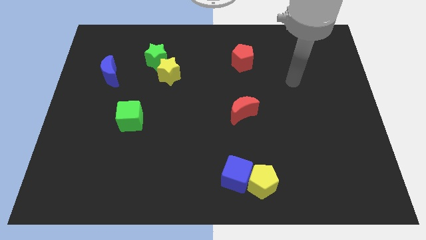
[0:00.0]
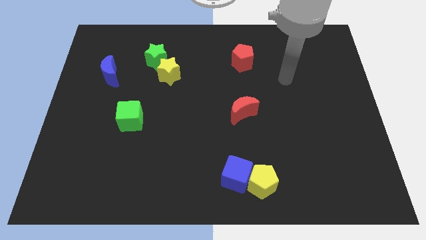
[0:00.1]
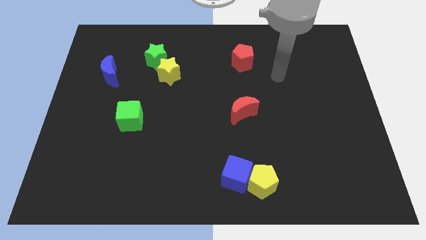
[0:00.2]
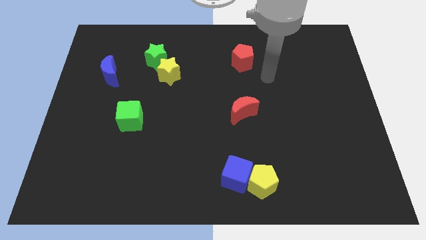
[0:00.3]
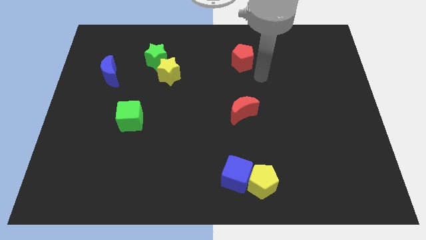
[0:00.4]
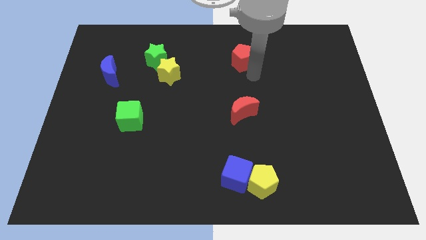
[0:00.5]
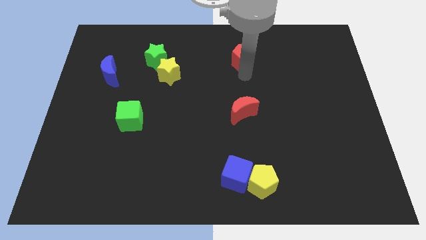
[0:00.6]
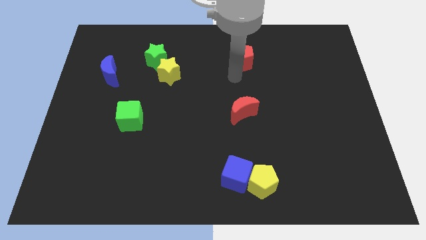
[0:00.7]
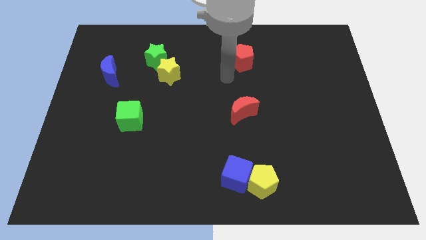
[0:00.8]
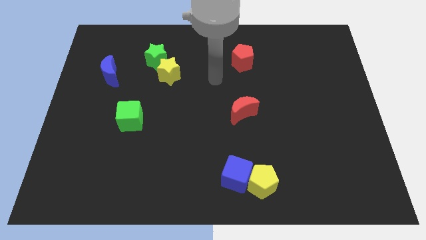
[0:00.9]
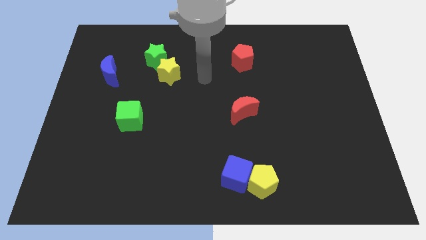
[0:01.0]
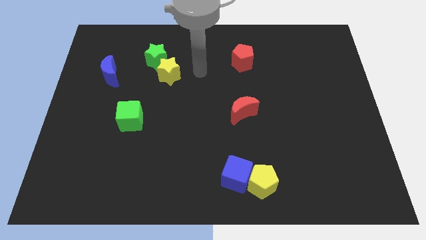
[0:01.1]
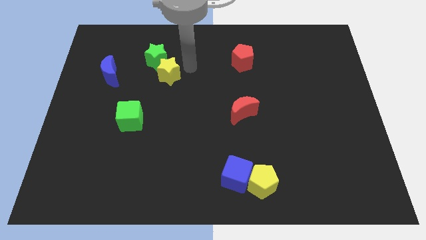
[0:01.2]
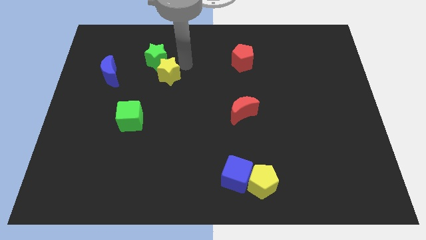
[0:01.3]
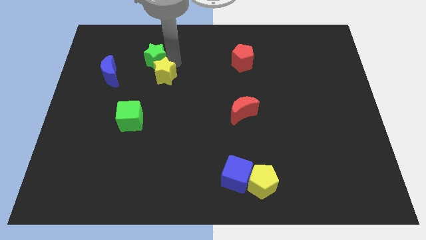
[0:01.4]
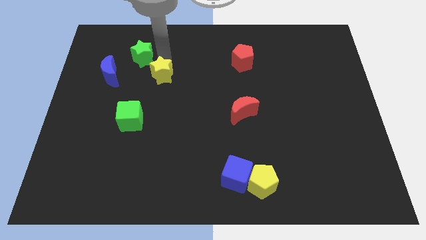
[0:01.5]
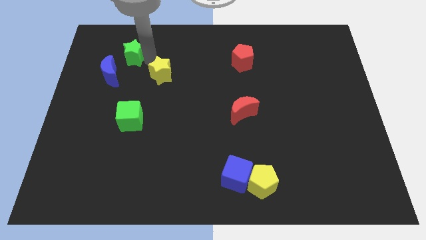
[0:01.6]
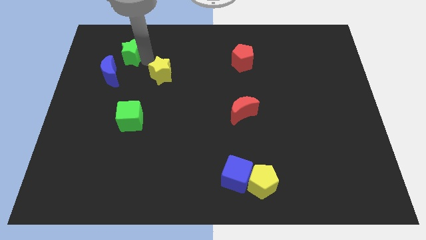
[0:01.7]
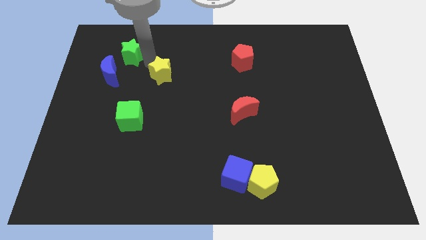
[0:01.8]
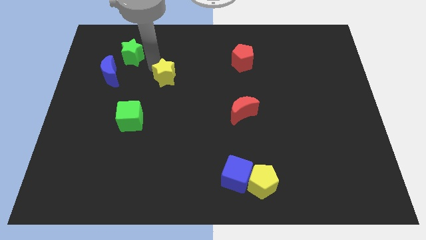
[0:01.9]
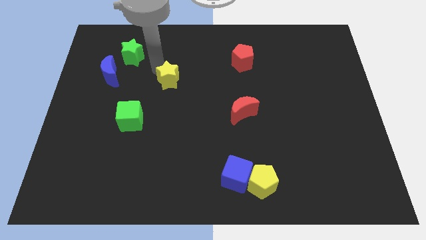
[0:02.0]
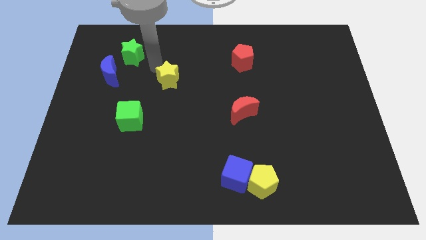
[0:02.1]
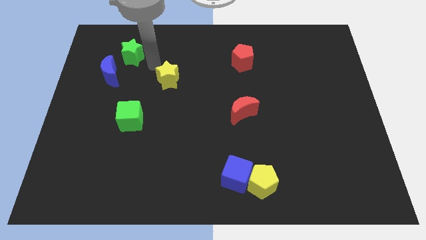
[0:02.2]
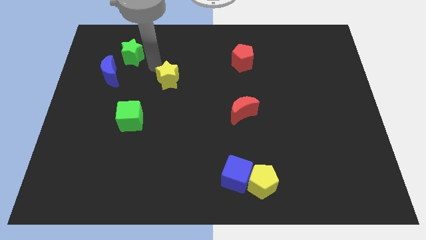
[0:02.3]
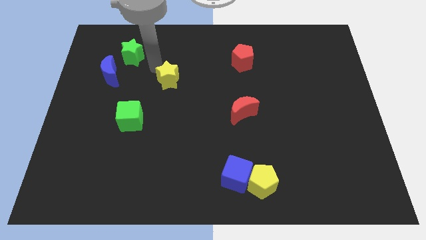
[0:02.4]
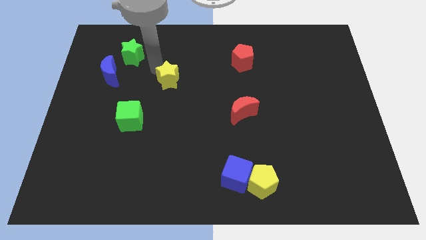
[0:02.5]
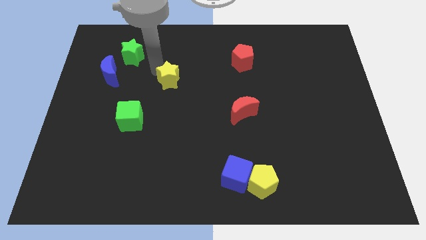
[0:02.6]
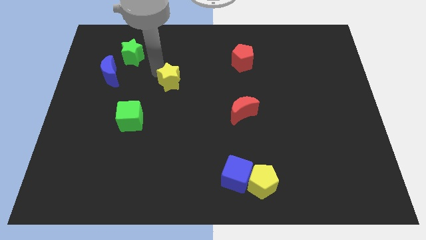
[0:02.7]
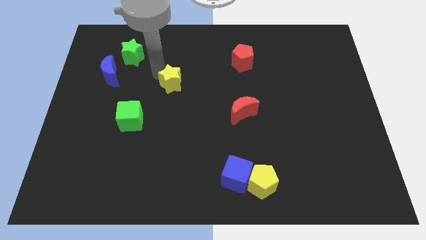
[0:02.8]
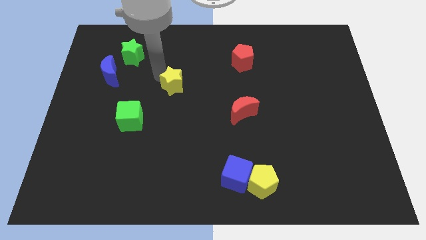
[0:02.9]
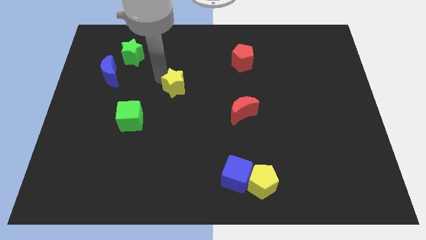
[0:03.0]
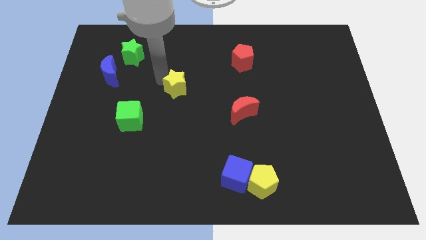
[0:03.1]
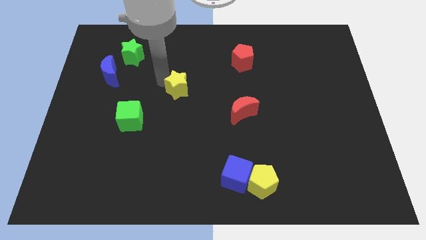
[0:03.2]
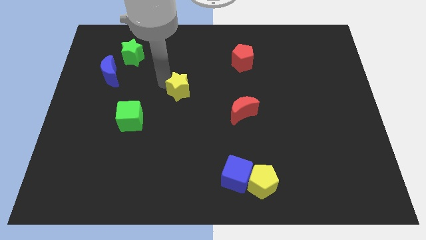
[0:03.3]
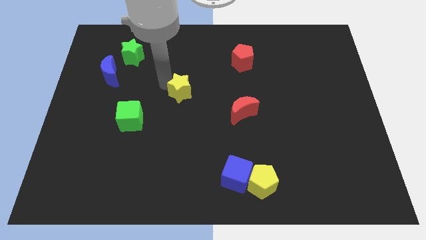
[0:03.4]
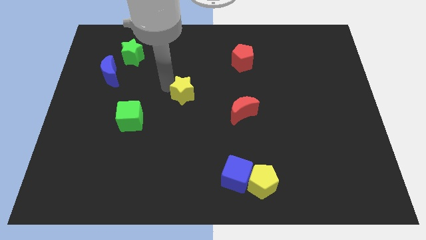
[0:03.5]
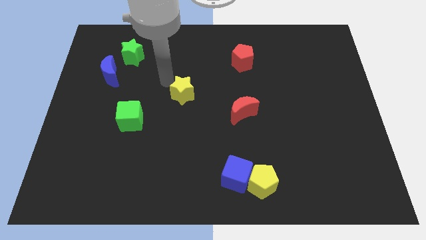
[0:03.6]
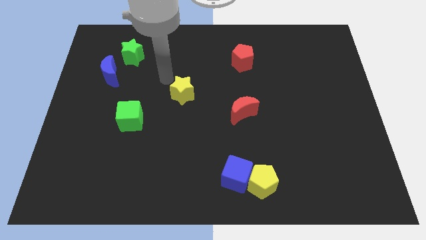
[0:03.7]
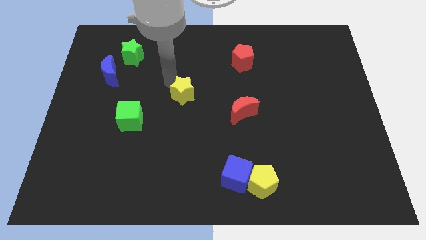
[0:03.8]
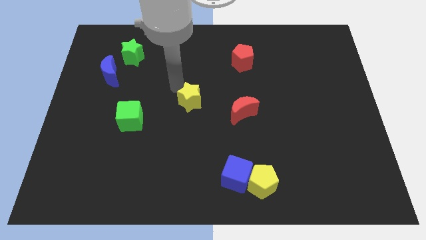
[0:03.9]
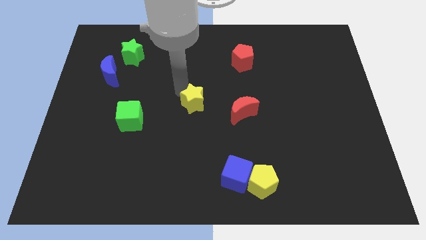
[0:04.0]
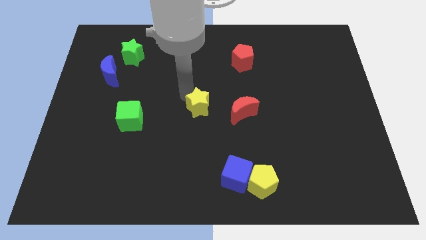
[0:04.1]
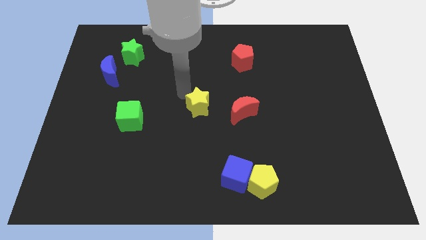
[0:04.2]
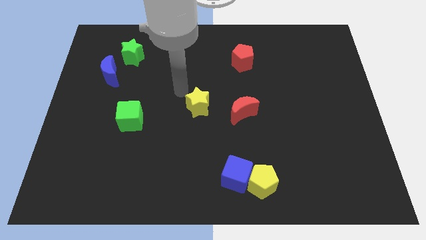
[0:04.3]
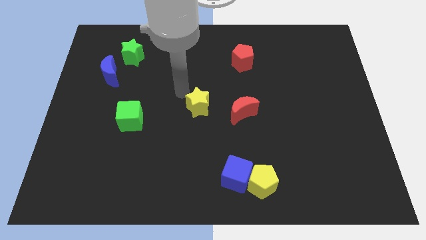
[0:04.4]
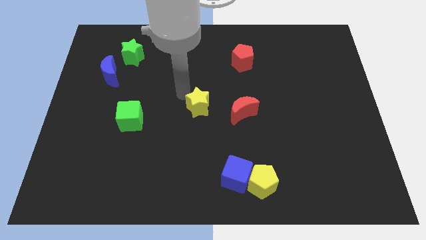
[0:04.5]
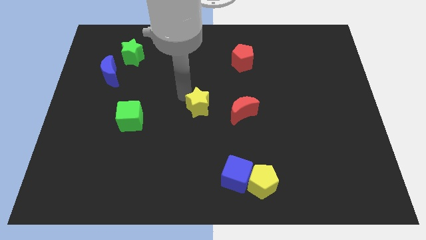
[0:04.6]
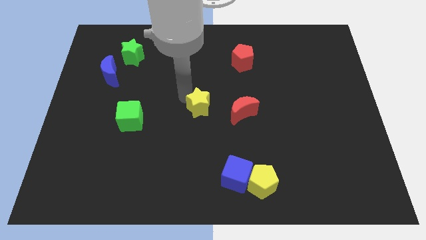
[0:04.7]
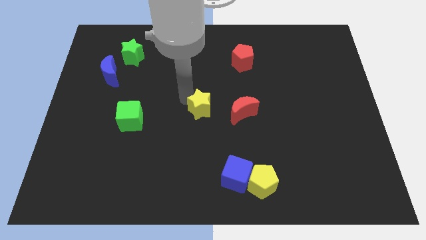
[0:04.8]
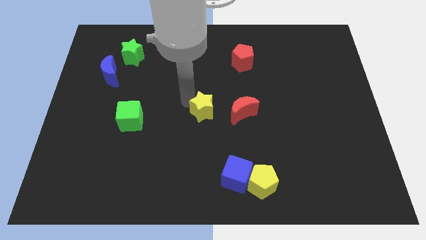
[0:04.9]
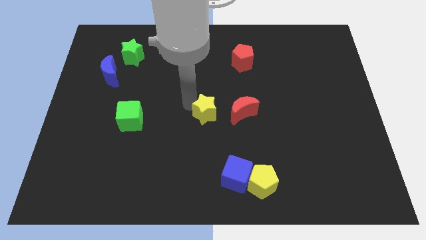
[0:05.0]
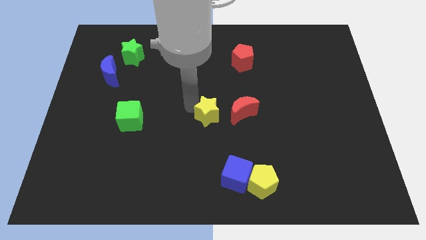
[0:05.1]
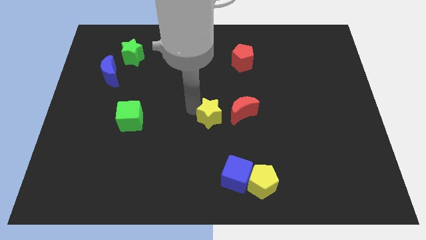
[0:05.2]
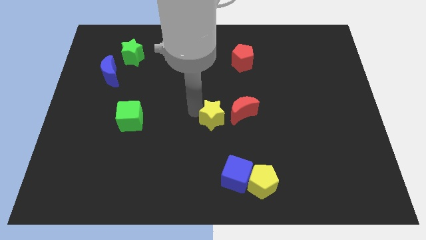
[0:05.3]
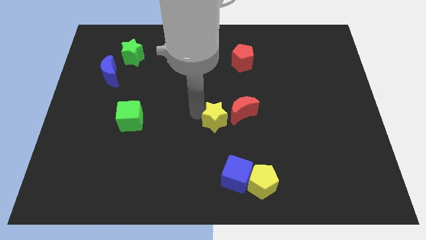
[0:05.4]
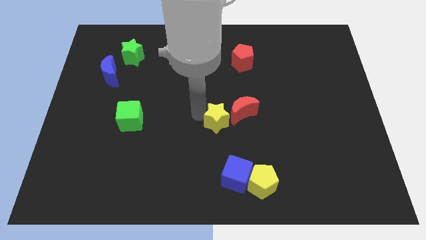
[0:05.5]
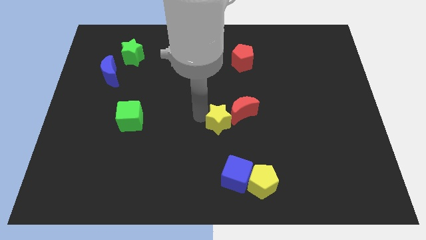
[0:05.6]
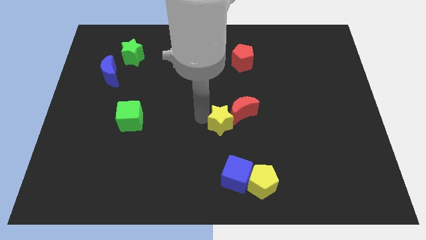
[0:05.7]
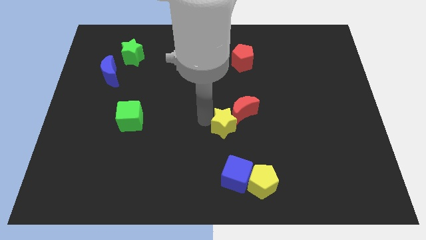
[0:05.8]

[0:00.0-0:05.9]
push the yellow star downwards and right

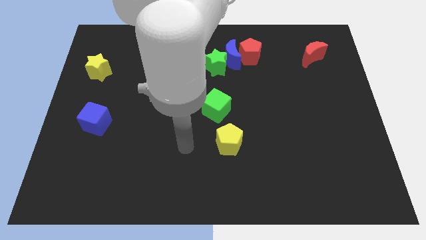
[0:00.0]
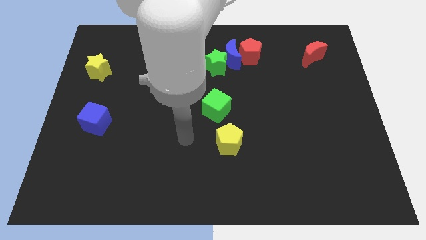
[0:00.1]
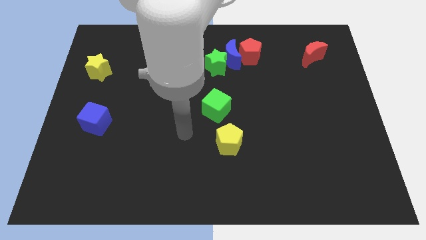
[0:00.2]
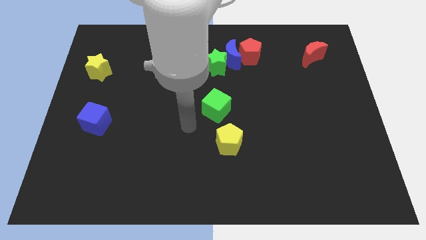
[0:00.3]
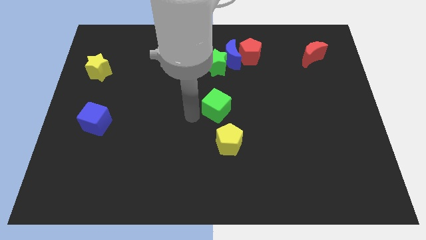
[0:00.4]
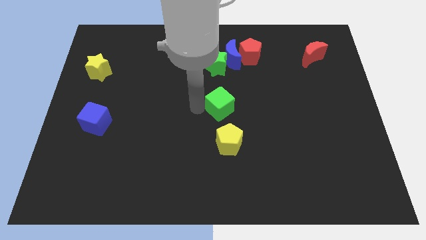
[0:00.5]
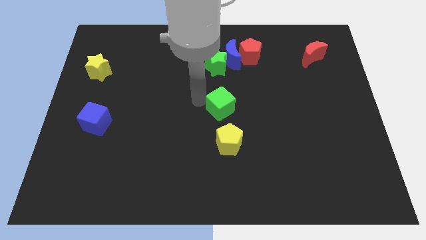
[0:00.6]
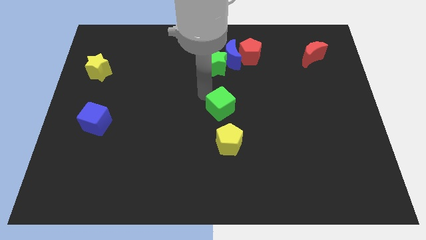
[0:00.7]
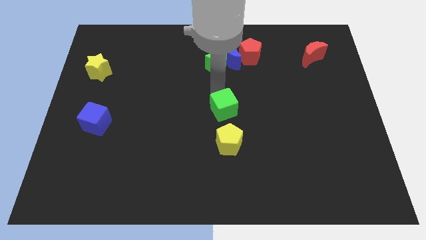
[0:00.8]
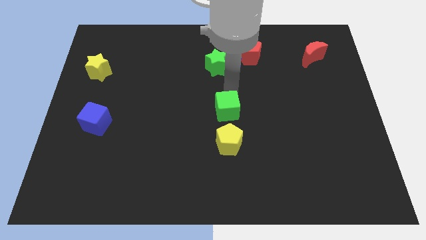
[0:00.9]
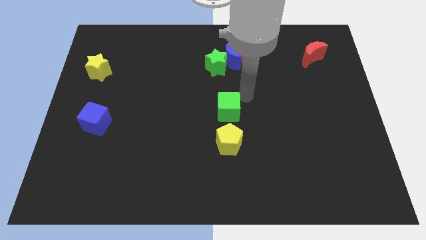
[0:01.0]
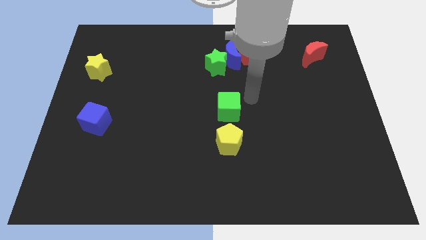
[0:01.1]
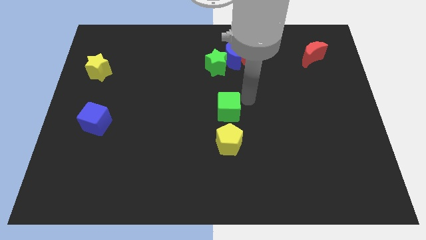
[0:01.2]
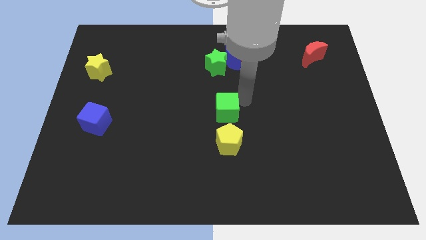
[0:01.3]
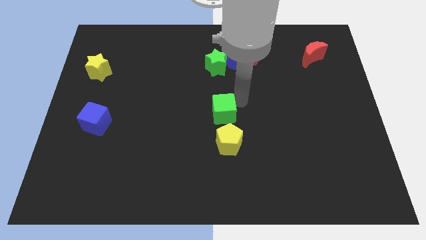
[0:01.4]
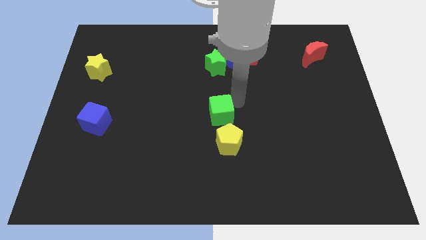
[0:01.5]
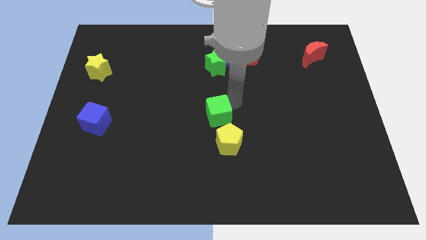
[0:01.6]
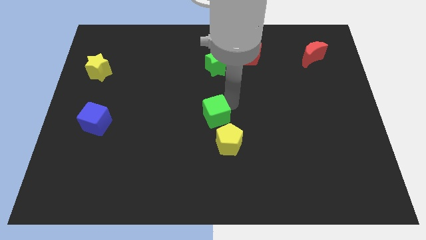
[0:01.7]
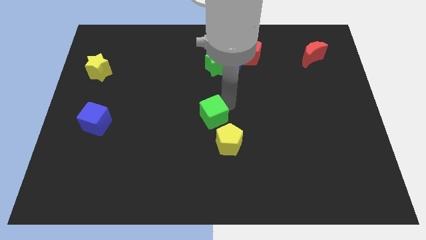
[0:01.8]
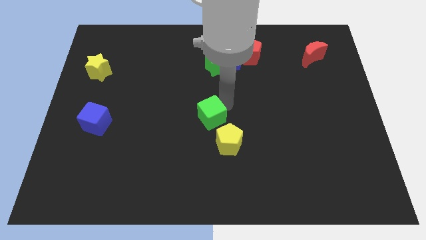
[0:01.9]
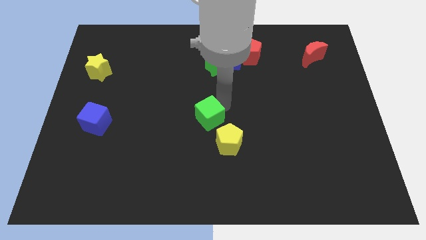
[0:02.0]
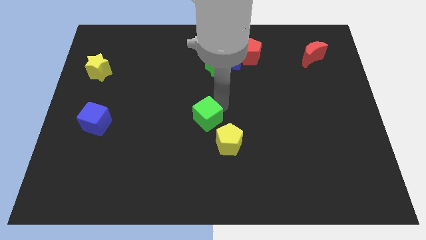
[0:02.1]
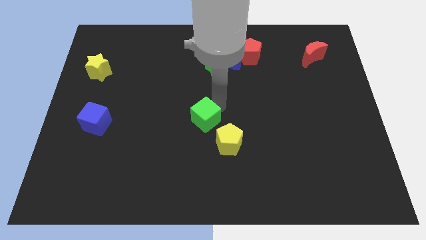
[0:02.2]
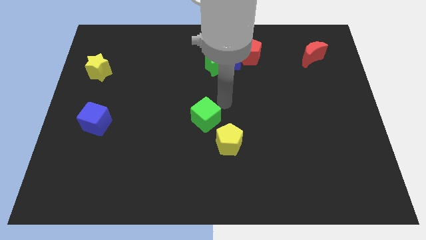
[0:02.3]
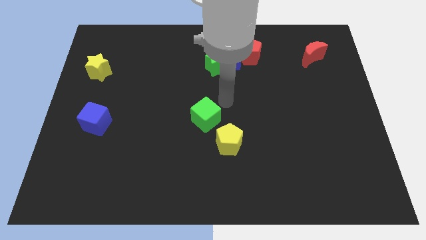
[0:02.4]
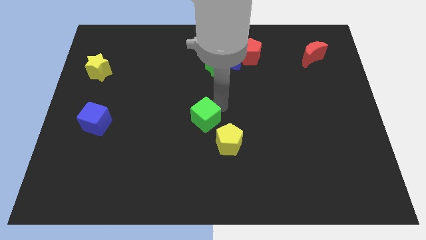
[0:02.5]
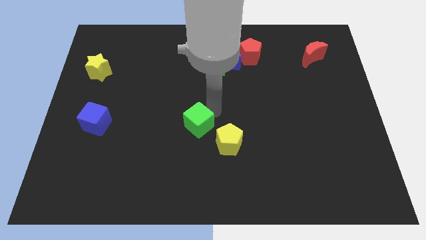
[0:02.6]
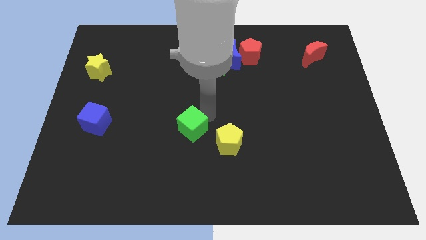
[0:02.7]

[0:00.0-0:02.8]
push the green cube downwards and left diagonally slightly
